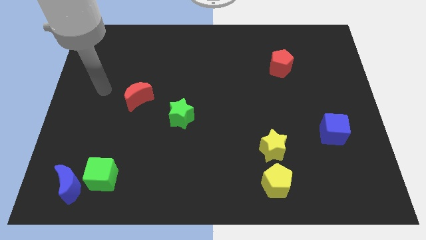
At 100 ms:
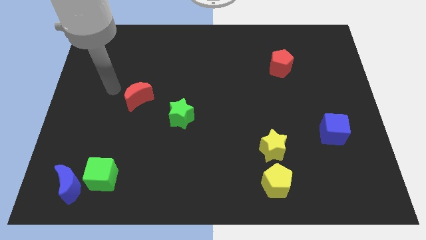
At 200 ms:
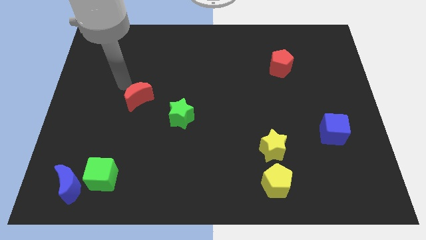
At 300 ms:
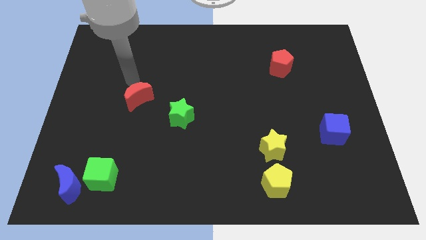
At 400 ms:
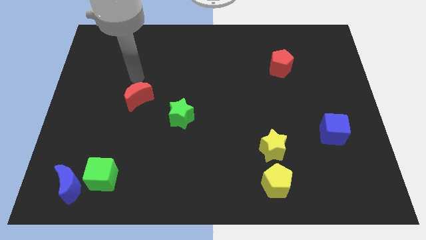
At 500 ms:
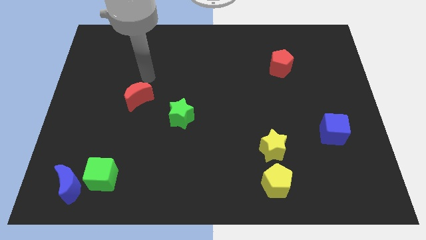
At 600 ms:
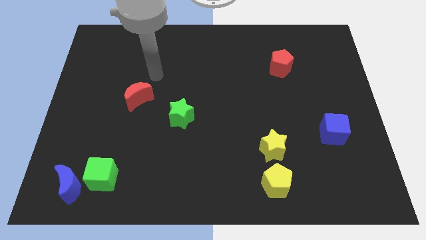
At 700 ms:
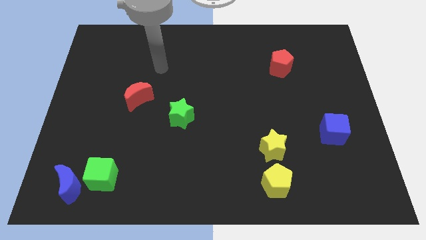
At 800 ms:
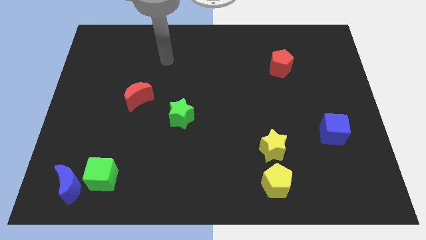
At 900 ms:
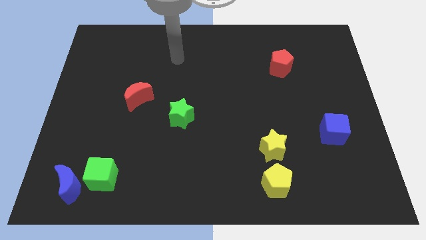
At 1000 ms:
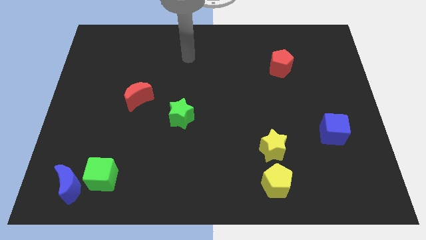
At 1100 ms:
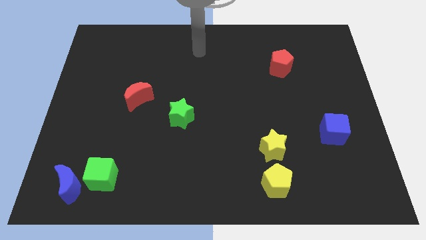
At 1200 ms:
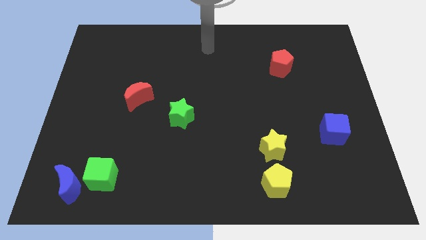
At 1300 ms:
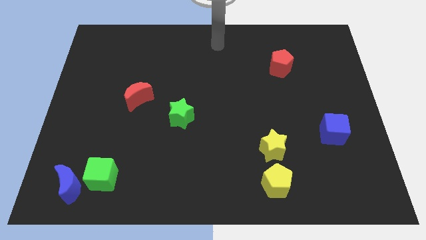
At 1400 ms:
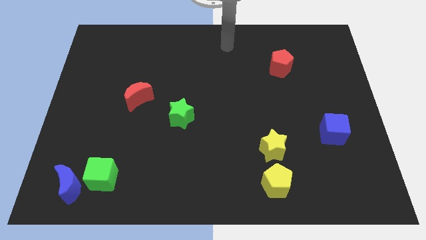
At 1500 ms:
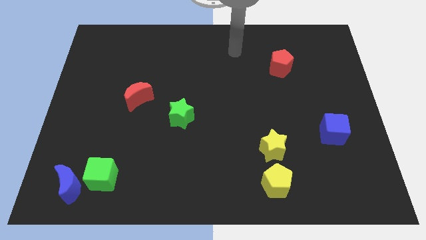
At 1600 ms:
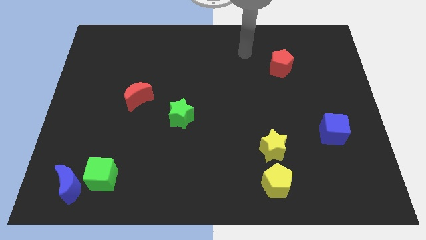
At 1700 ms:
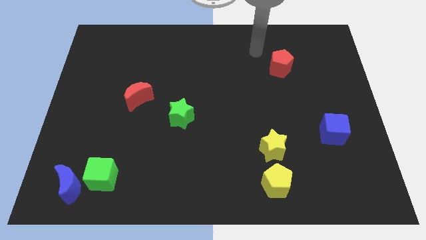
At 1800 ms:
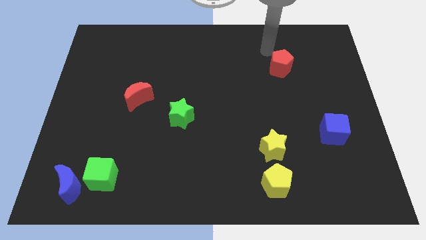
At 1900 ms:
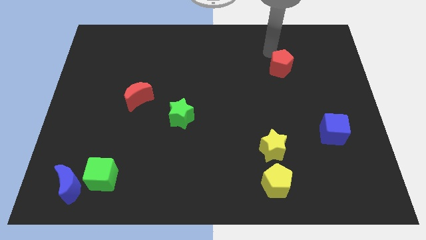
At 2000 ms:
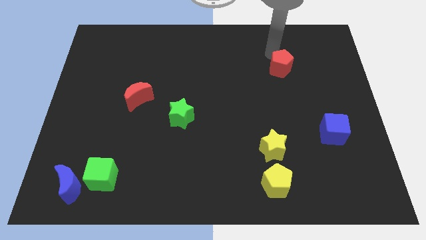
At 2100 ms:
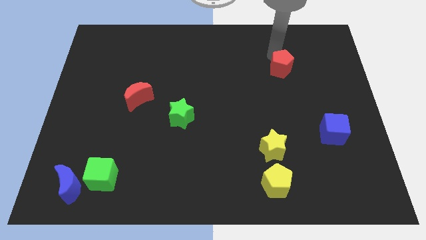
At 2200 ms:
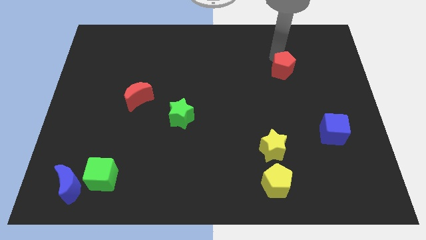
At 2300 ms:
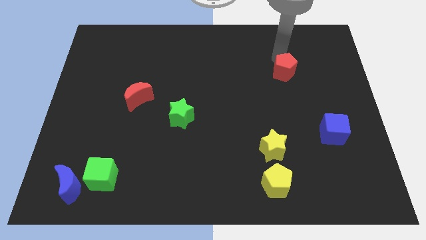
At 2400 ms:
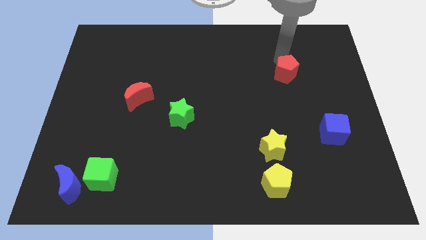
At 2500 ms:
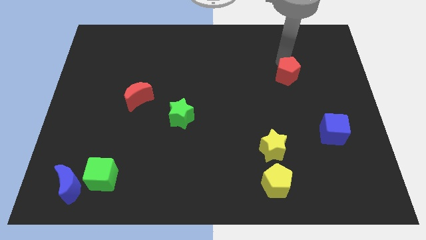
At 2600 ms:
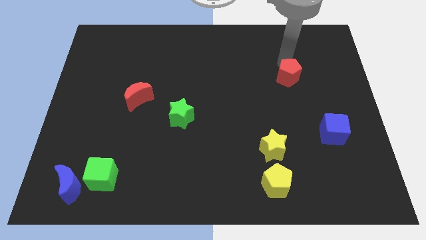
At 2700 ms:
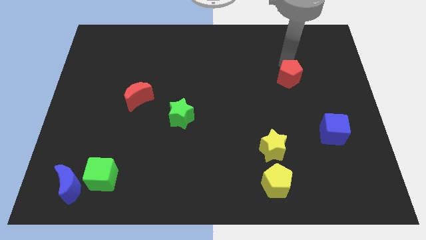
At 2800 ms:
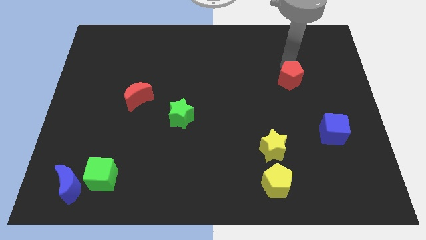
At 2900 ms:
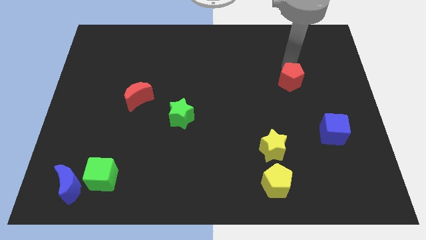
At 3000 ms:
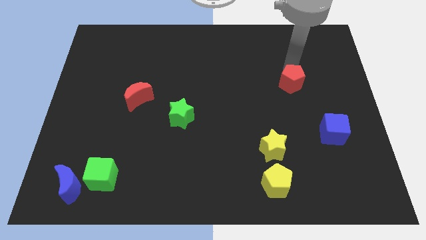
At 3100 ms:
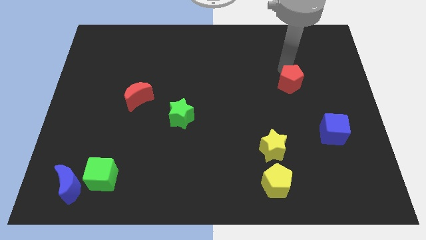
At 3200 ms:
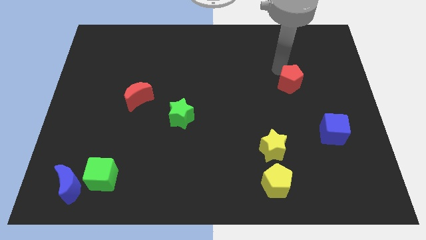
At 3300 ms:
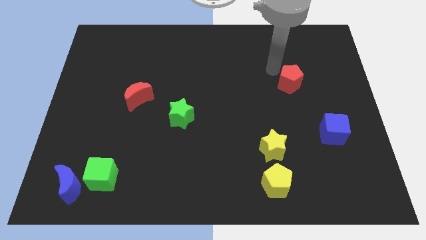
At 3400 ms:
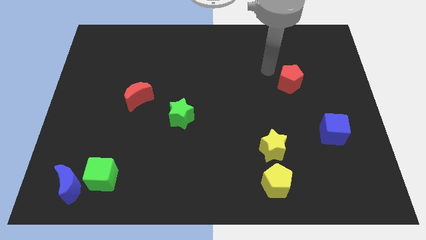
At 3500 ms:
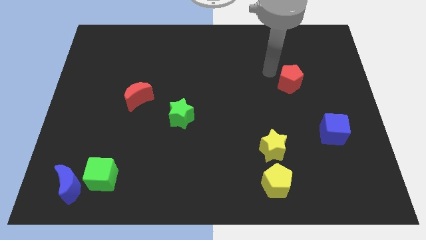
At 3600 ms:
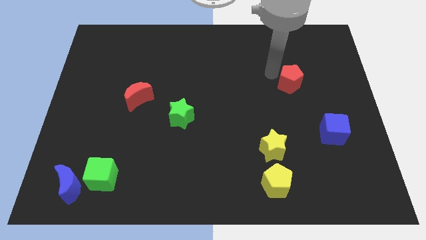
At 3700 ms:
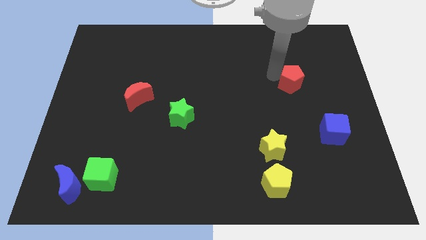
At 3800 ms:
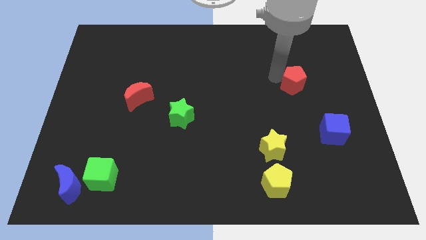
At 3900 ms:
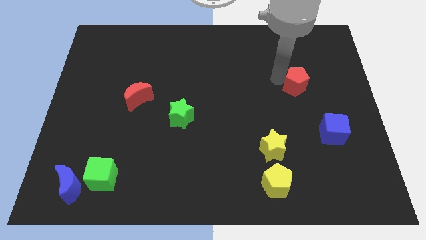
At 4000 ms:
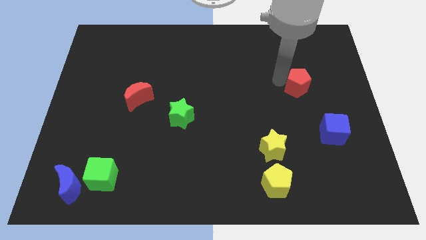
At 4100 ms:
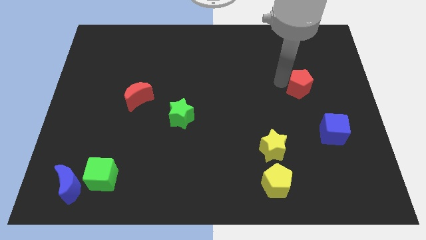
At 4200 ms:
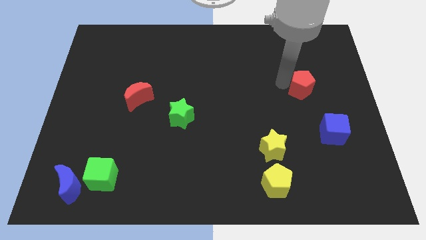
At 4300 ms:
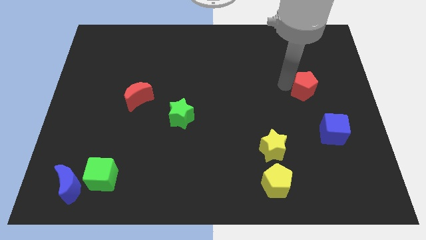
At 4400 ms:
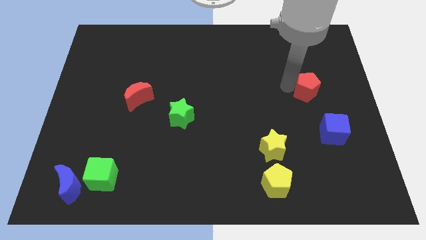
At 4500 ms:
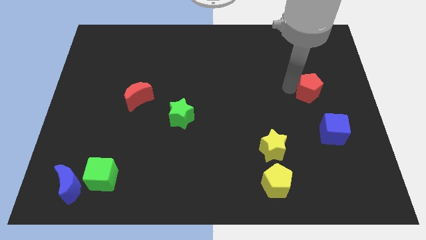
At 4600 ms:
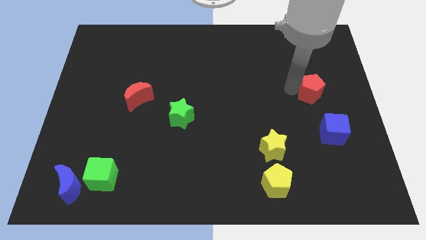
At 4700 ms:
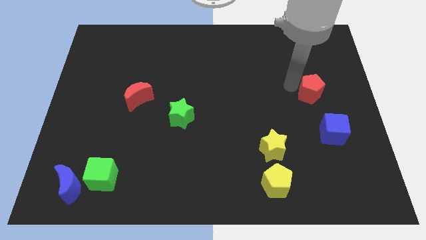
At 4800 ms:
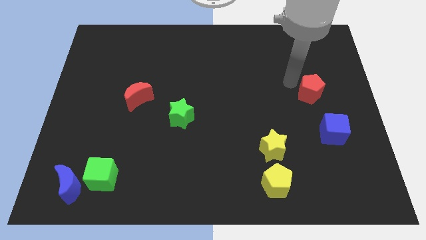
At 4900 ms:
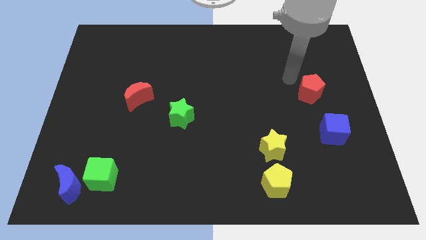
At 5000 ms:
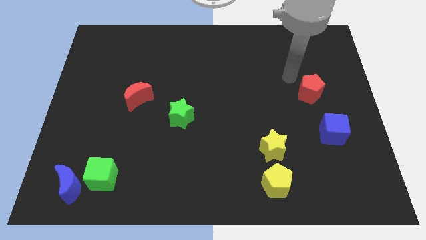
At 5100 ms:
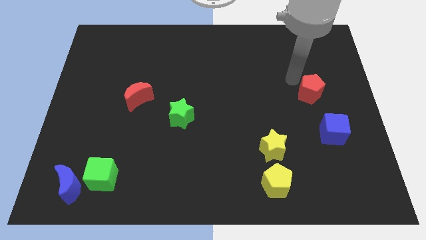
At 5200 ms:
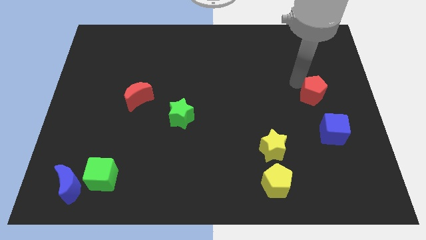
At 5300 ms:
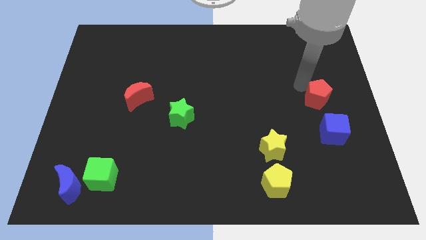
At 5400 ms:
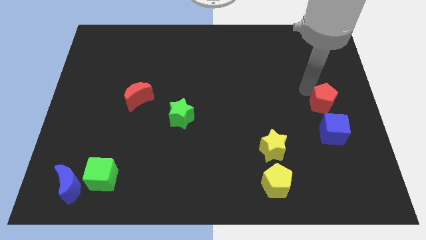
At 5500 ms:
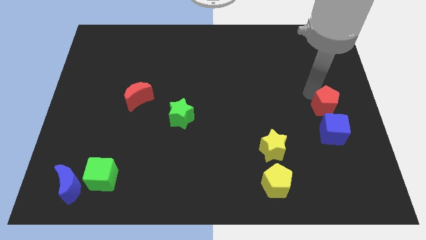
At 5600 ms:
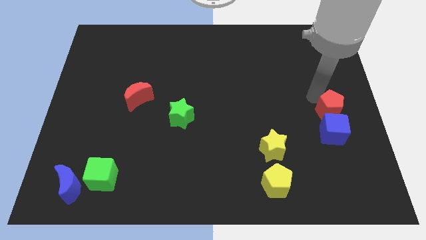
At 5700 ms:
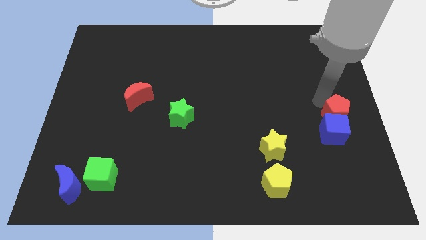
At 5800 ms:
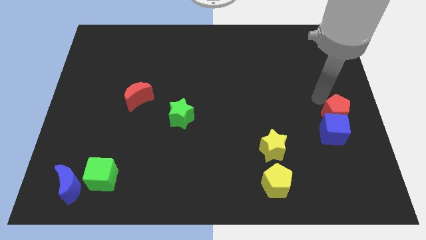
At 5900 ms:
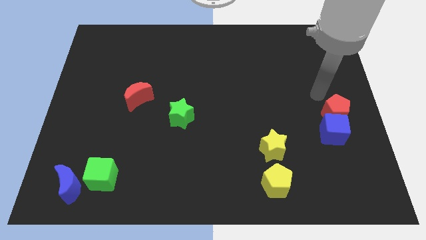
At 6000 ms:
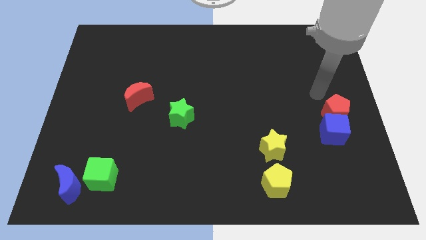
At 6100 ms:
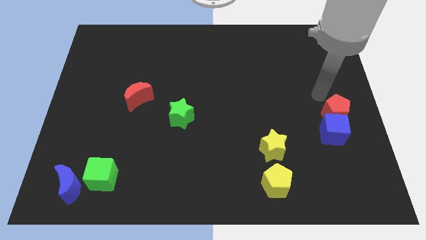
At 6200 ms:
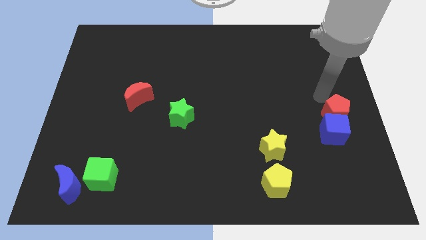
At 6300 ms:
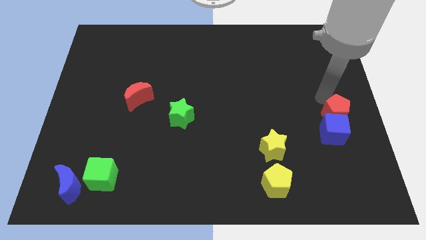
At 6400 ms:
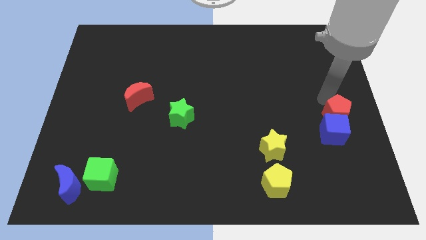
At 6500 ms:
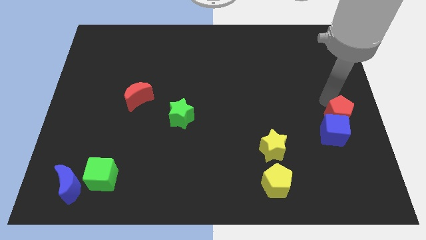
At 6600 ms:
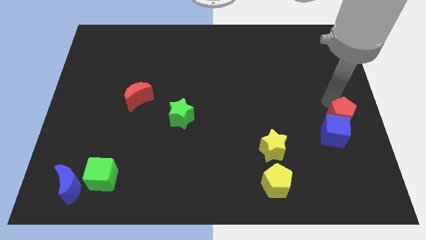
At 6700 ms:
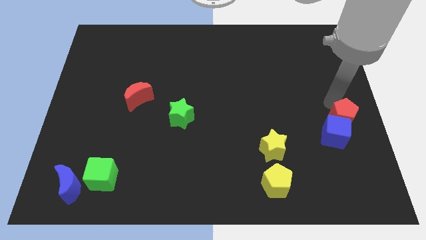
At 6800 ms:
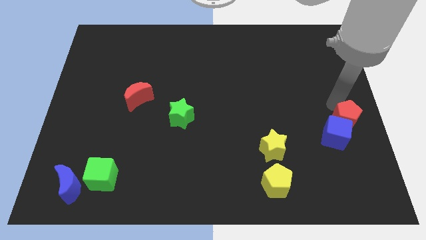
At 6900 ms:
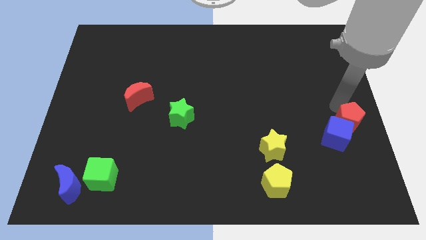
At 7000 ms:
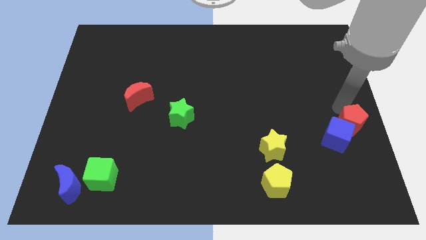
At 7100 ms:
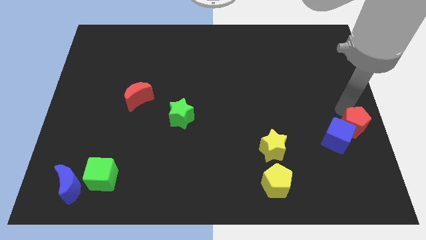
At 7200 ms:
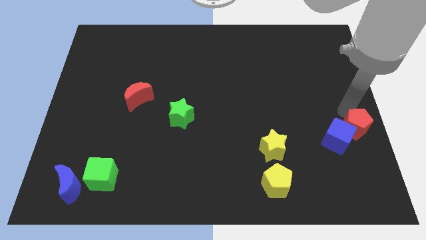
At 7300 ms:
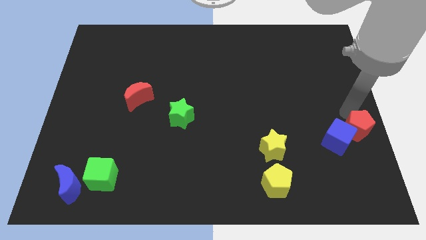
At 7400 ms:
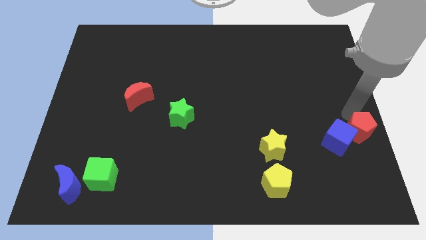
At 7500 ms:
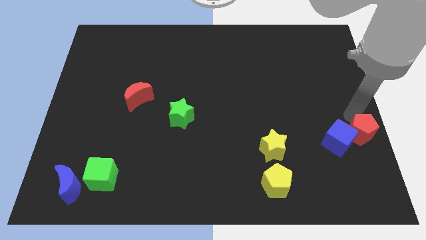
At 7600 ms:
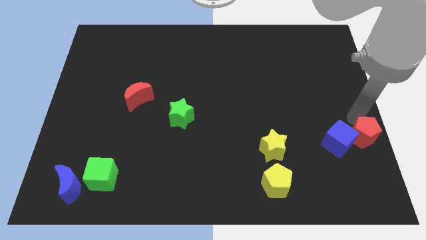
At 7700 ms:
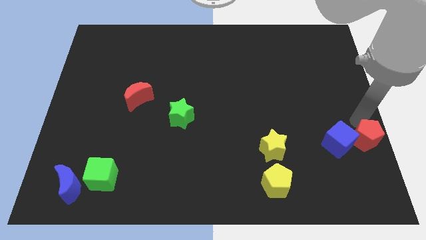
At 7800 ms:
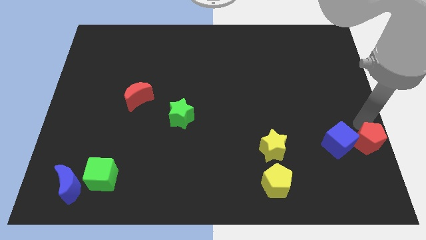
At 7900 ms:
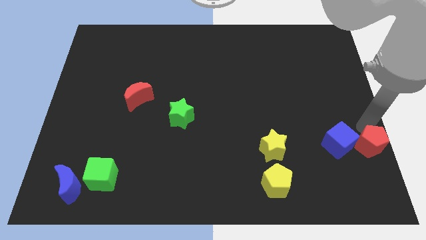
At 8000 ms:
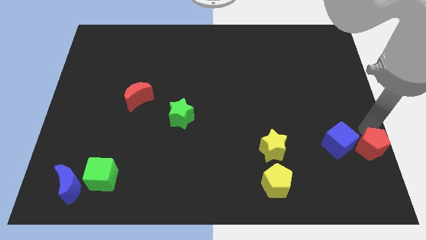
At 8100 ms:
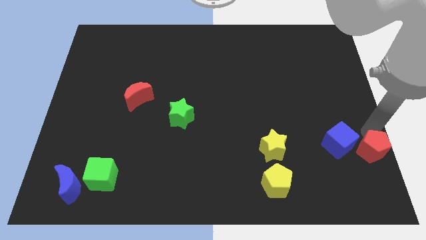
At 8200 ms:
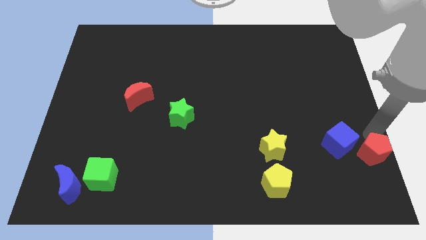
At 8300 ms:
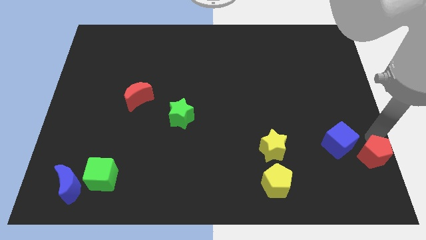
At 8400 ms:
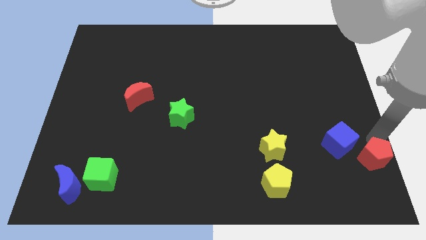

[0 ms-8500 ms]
move the red pentagon to the lower right corner
